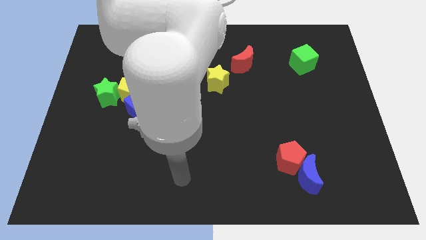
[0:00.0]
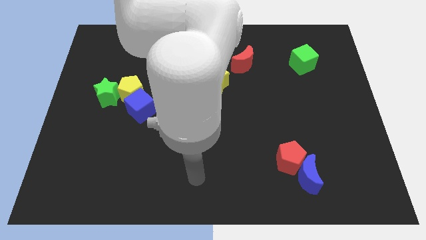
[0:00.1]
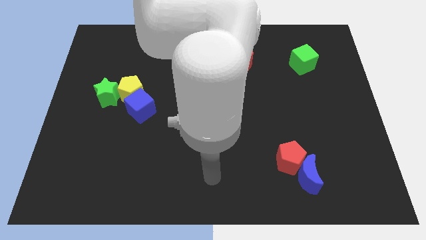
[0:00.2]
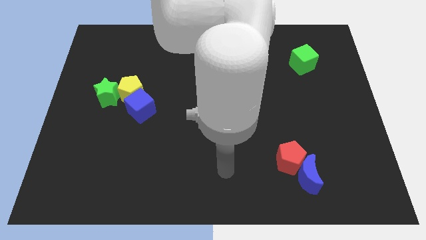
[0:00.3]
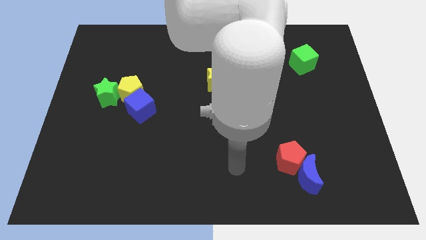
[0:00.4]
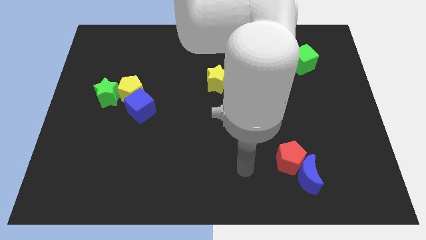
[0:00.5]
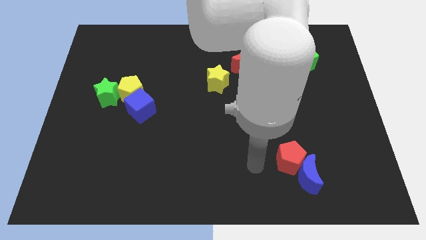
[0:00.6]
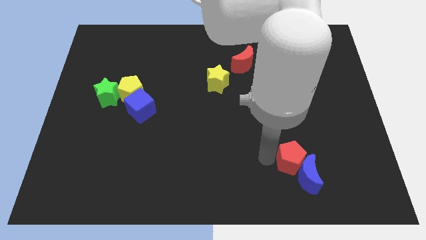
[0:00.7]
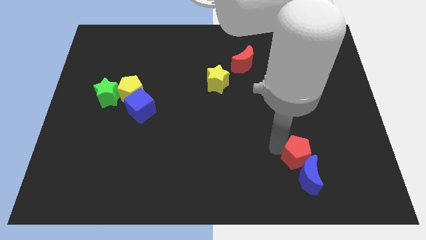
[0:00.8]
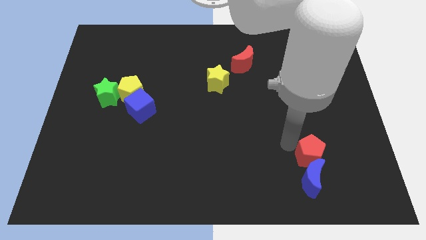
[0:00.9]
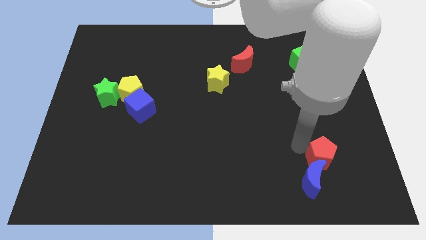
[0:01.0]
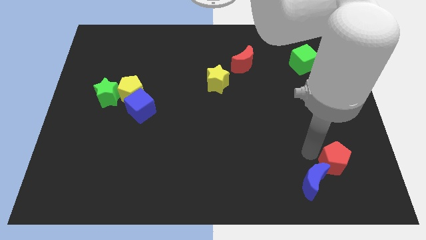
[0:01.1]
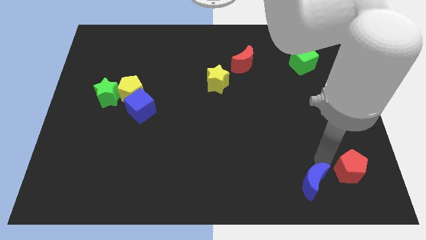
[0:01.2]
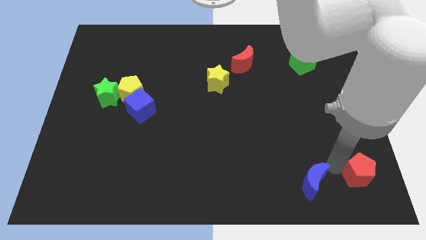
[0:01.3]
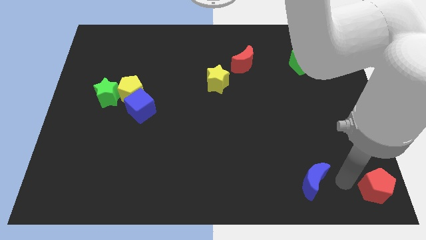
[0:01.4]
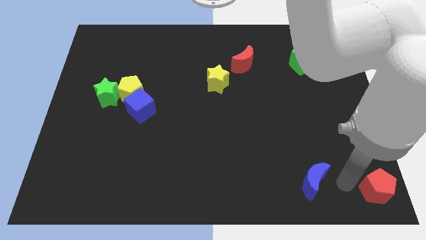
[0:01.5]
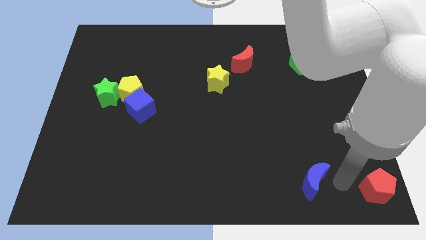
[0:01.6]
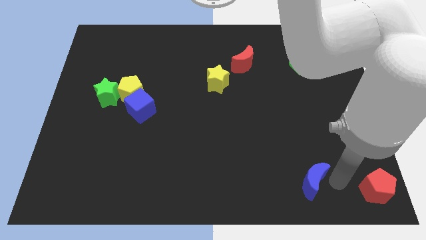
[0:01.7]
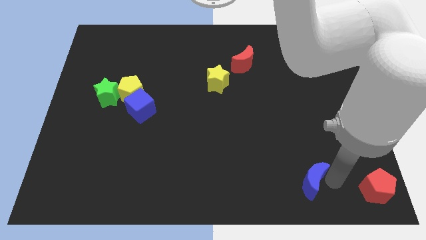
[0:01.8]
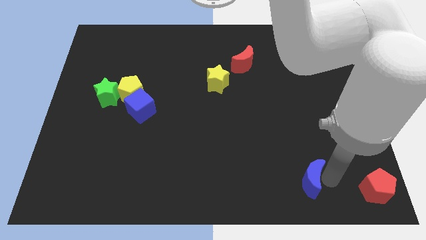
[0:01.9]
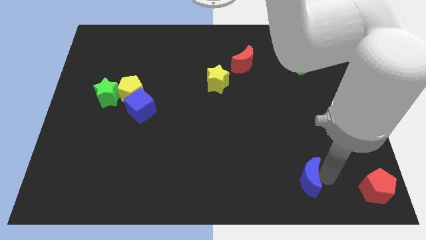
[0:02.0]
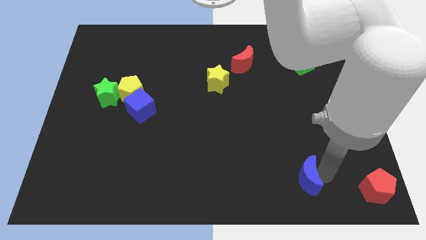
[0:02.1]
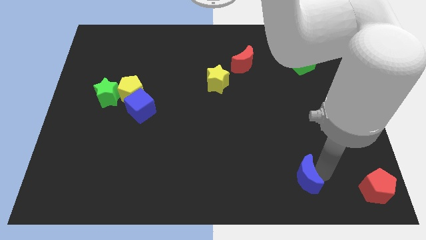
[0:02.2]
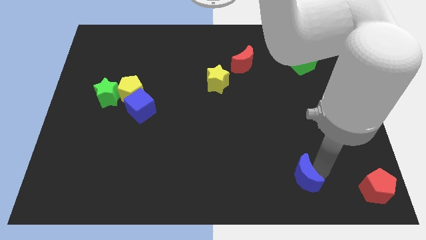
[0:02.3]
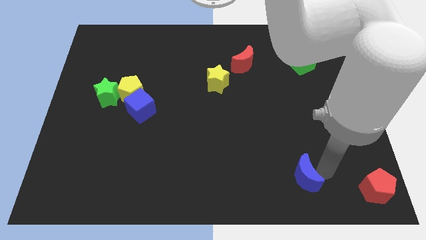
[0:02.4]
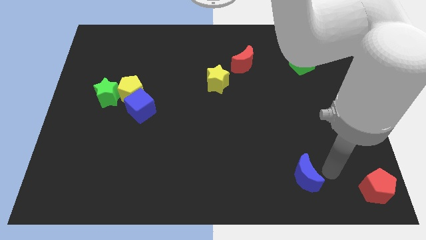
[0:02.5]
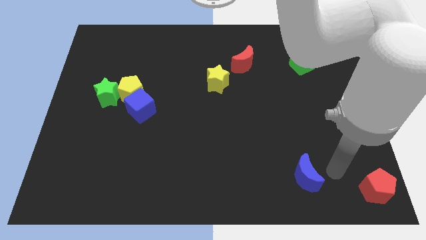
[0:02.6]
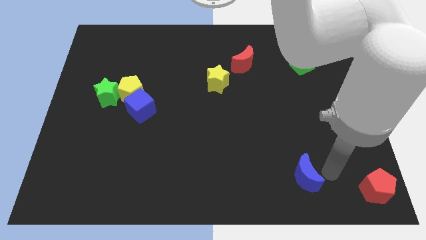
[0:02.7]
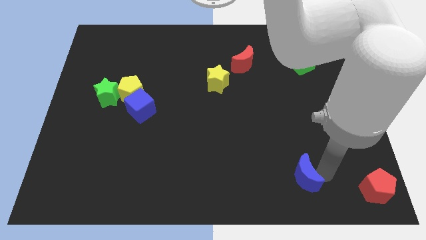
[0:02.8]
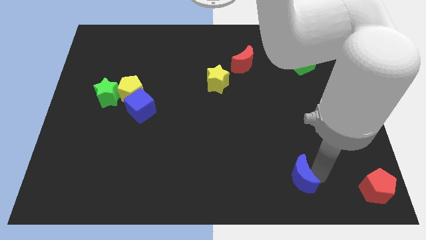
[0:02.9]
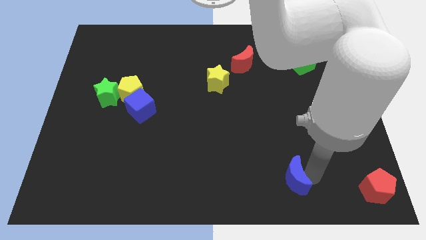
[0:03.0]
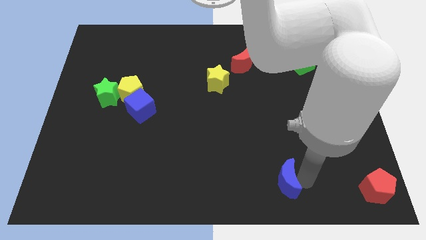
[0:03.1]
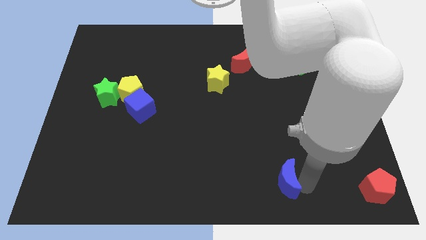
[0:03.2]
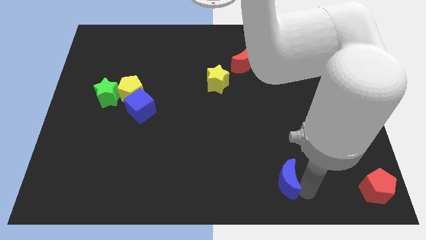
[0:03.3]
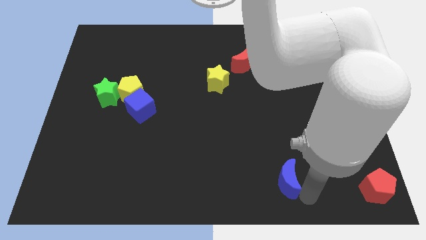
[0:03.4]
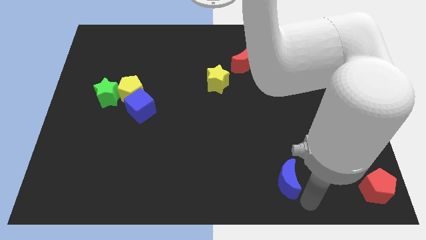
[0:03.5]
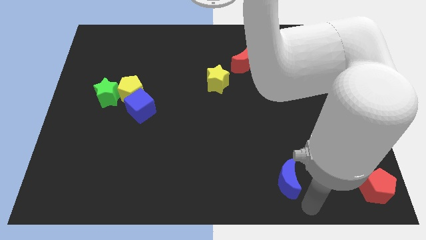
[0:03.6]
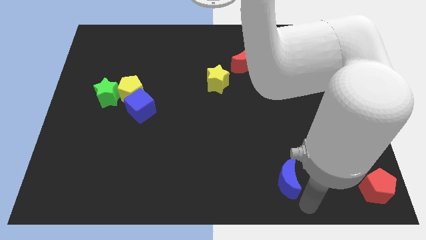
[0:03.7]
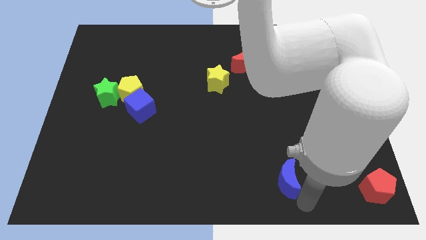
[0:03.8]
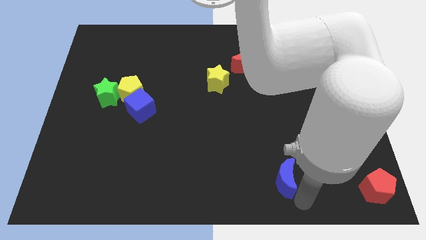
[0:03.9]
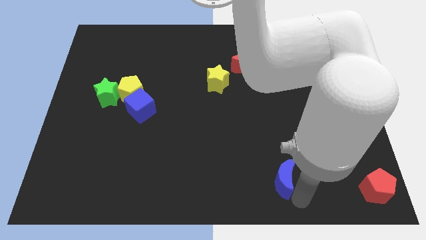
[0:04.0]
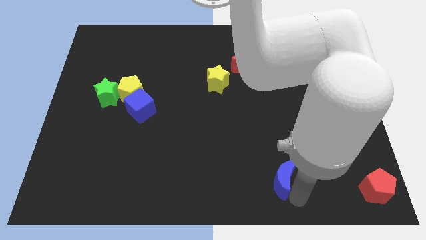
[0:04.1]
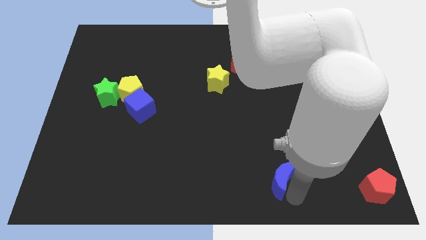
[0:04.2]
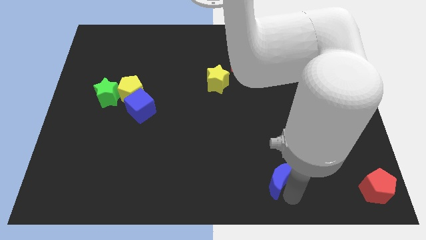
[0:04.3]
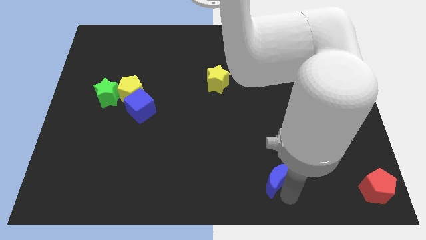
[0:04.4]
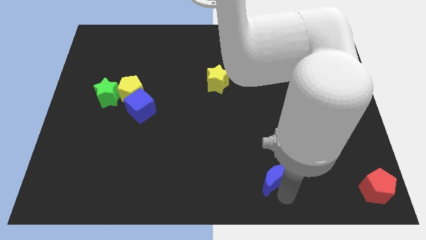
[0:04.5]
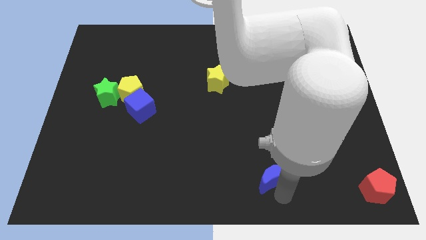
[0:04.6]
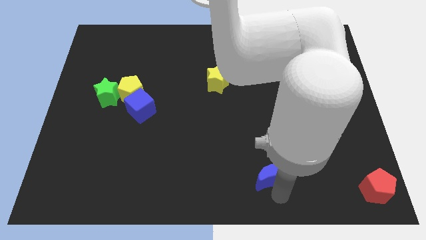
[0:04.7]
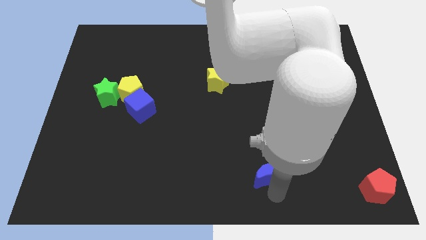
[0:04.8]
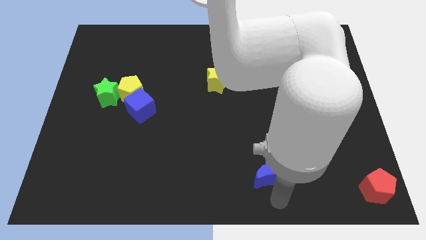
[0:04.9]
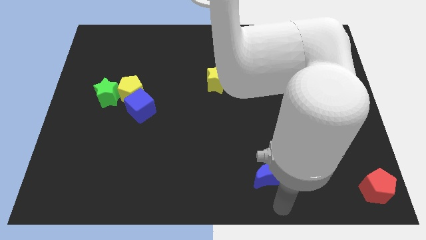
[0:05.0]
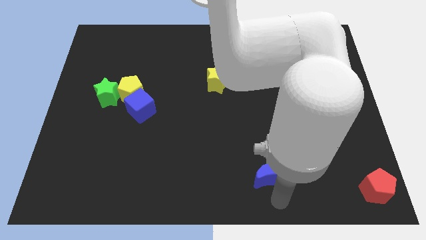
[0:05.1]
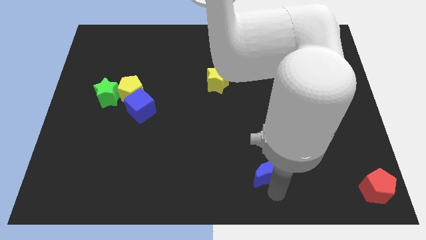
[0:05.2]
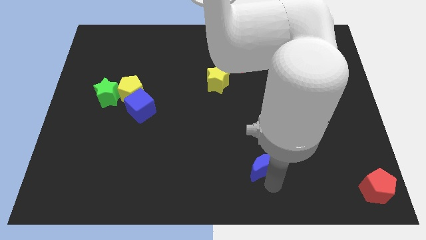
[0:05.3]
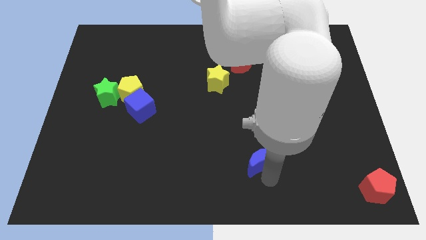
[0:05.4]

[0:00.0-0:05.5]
slightly slide the blue moon up and left diagonally

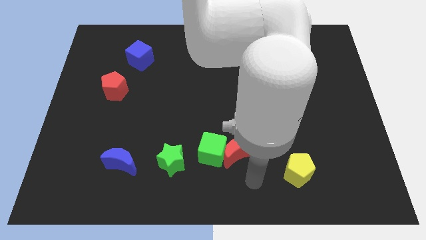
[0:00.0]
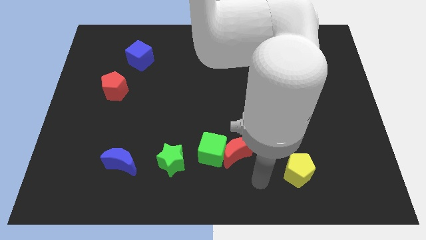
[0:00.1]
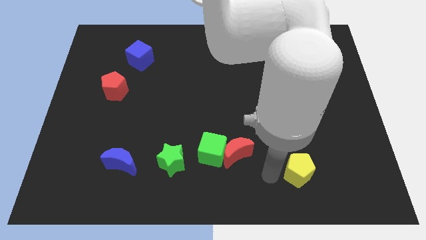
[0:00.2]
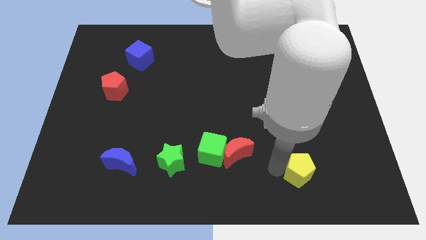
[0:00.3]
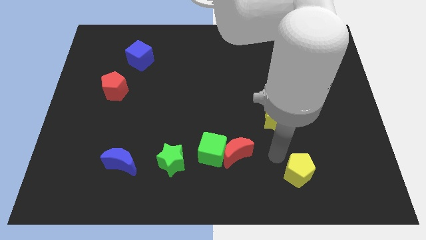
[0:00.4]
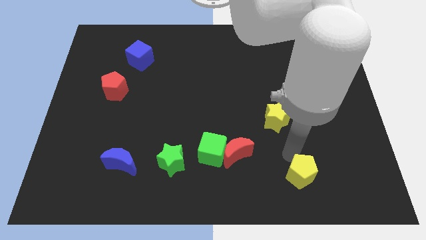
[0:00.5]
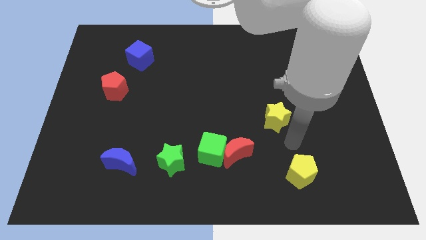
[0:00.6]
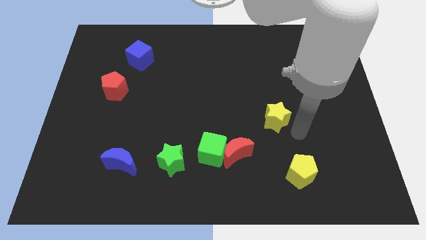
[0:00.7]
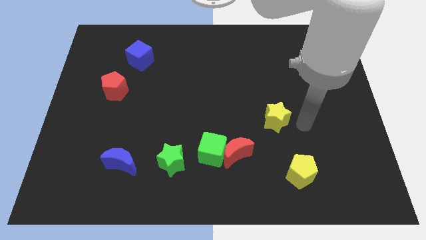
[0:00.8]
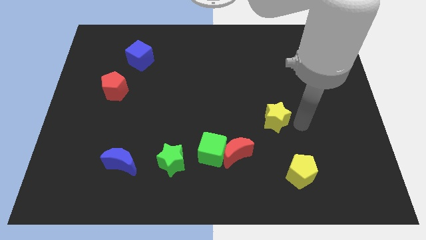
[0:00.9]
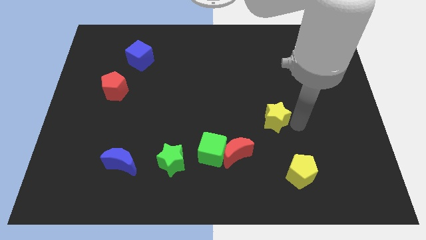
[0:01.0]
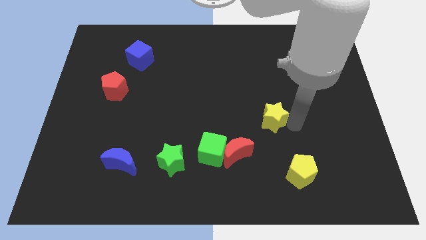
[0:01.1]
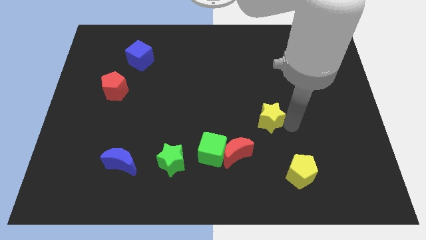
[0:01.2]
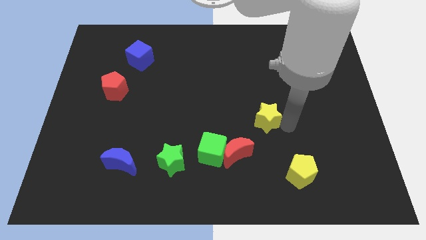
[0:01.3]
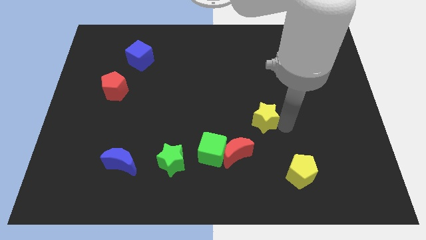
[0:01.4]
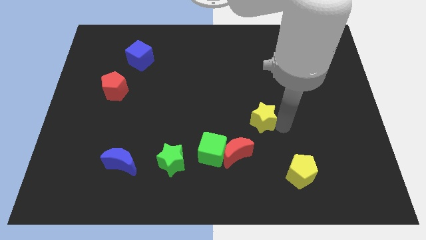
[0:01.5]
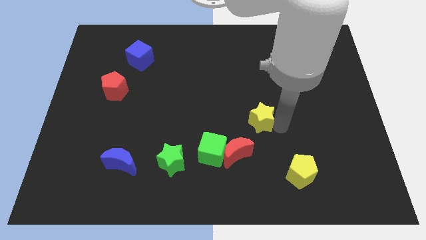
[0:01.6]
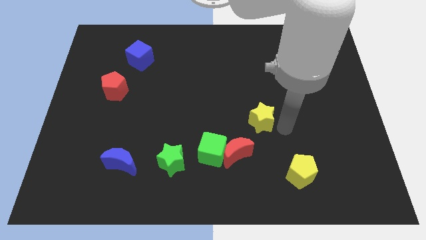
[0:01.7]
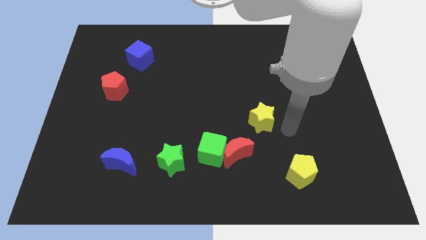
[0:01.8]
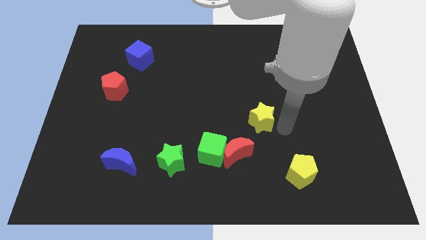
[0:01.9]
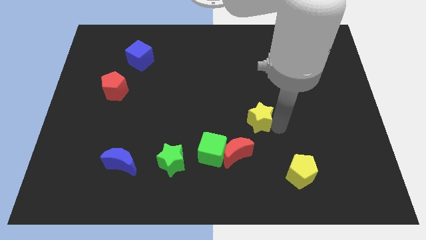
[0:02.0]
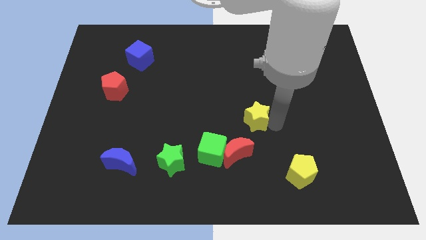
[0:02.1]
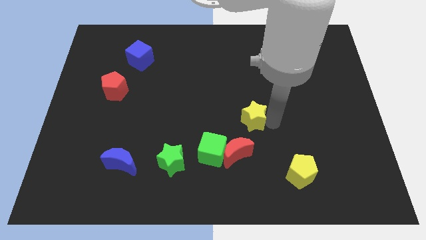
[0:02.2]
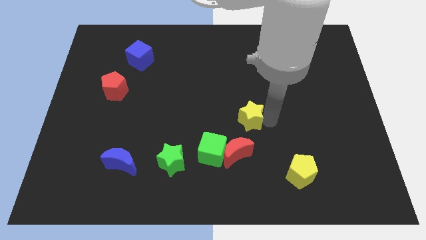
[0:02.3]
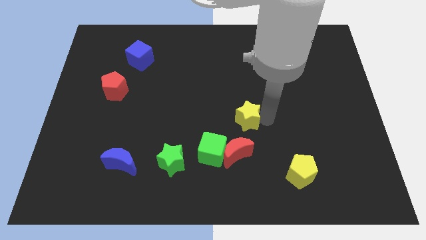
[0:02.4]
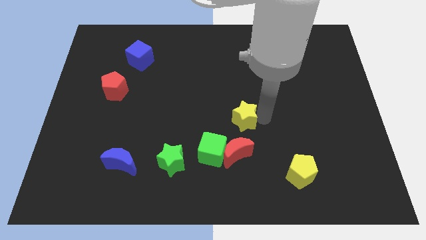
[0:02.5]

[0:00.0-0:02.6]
push the yellow star left slightly
